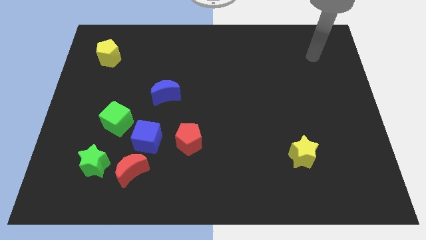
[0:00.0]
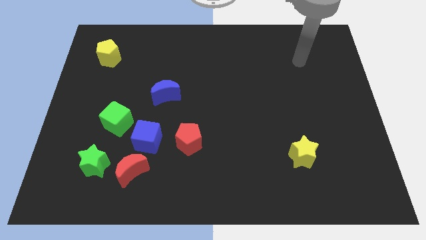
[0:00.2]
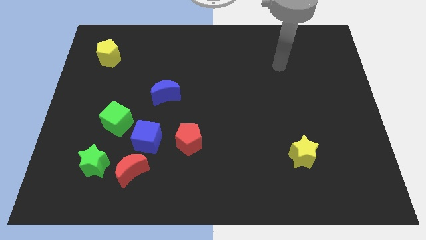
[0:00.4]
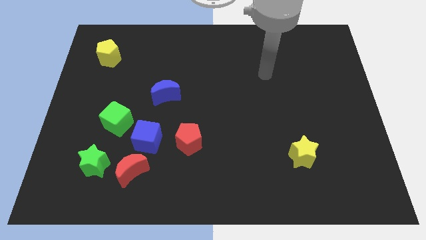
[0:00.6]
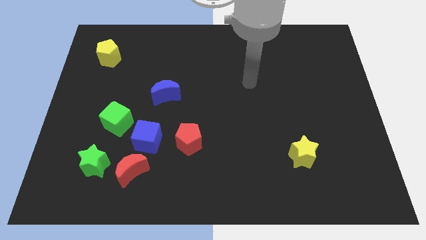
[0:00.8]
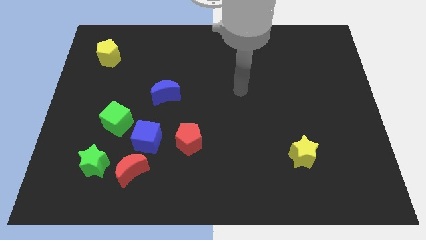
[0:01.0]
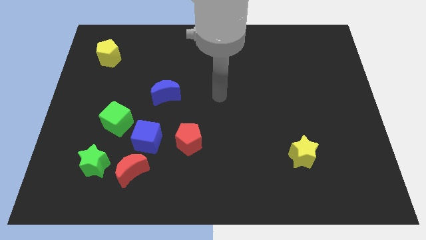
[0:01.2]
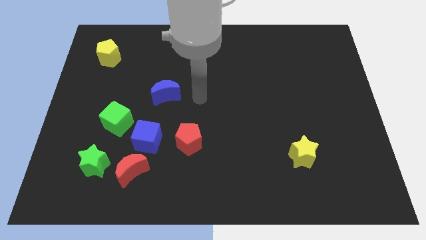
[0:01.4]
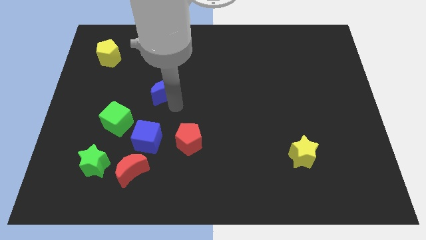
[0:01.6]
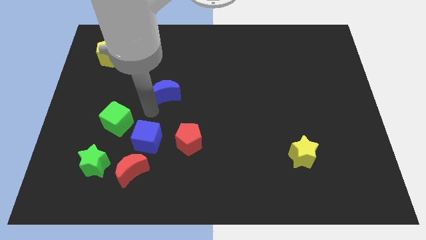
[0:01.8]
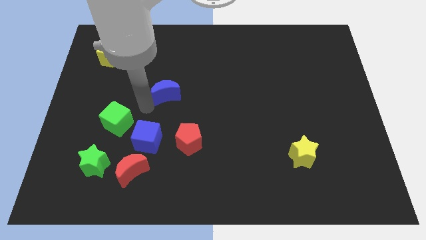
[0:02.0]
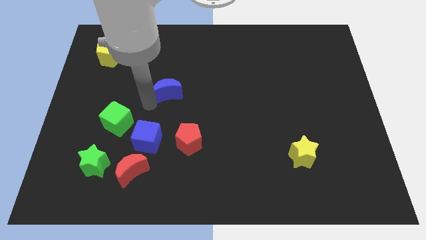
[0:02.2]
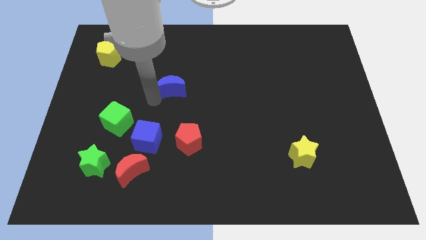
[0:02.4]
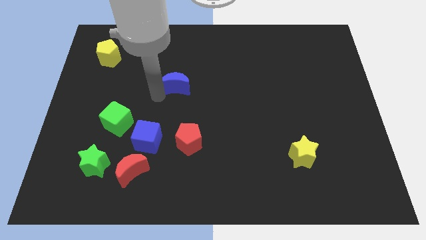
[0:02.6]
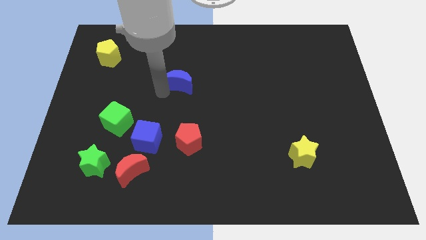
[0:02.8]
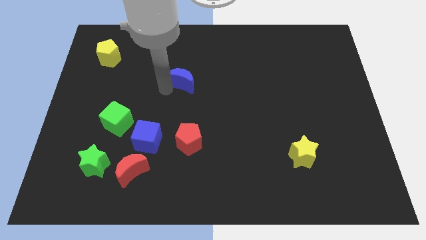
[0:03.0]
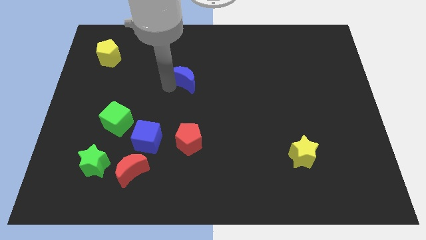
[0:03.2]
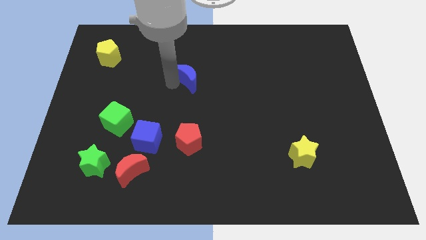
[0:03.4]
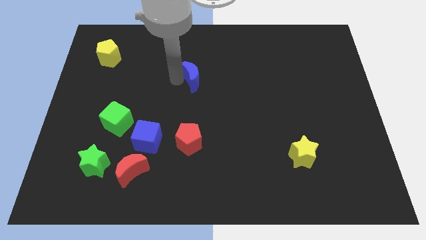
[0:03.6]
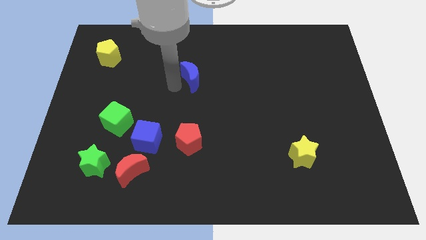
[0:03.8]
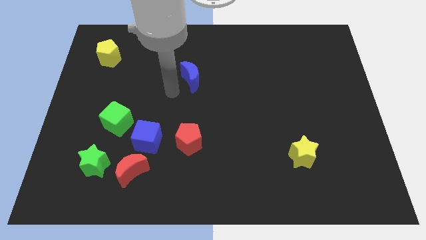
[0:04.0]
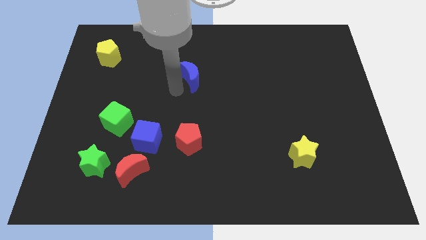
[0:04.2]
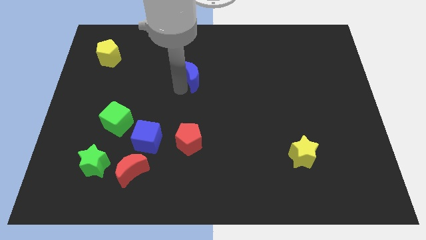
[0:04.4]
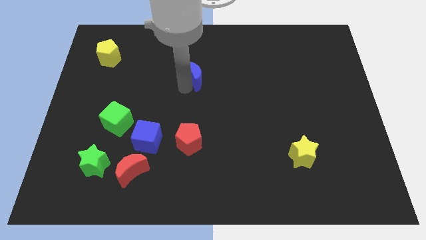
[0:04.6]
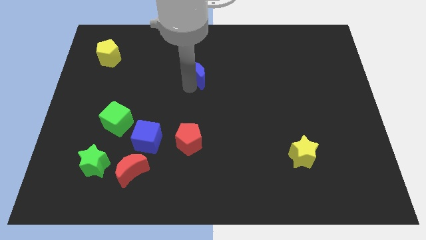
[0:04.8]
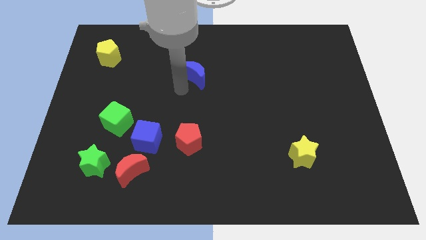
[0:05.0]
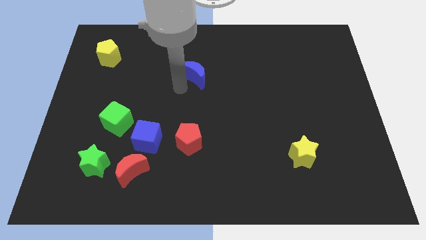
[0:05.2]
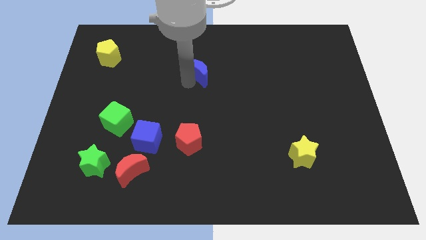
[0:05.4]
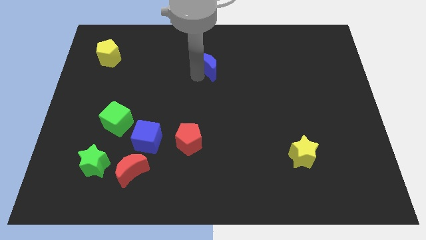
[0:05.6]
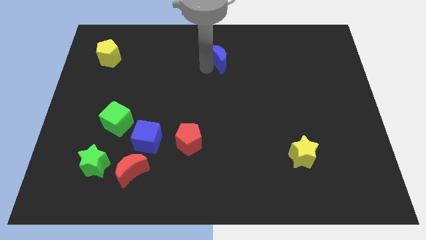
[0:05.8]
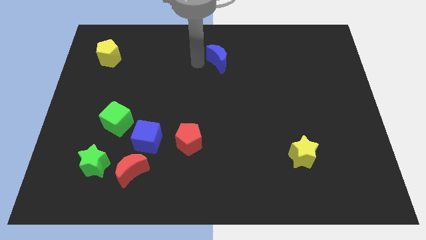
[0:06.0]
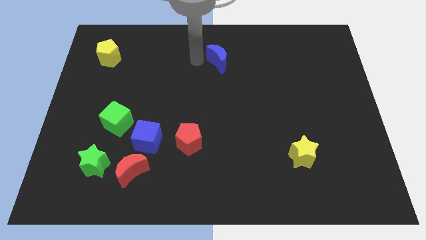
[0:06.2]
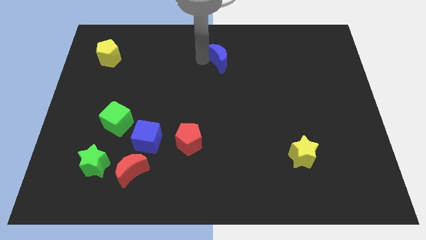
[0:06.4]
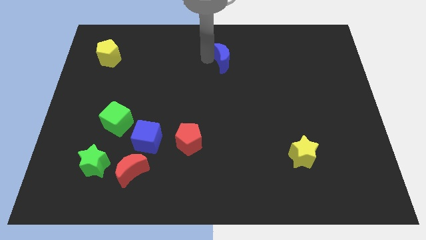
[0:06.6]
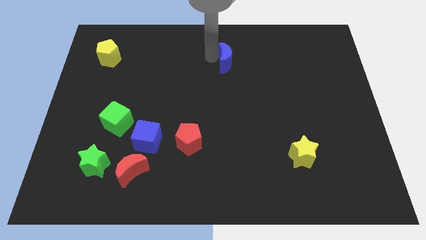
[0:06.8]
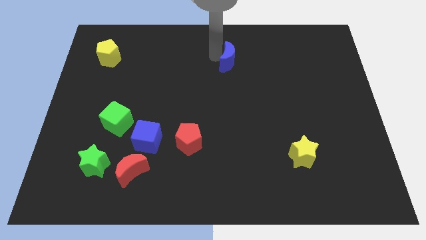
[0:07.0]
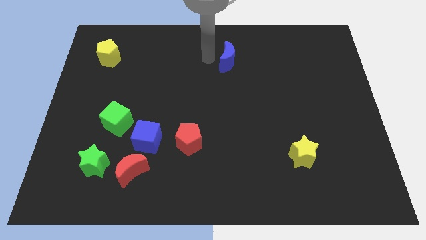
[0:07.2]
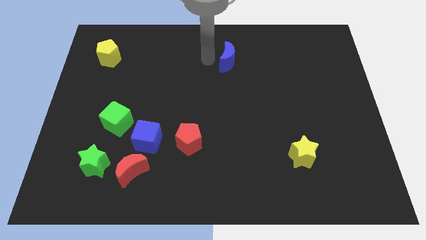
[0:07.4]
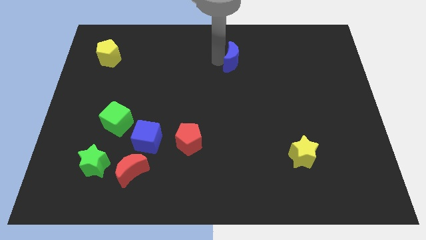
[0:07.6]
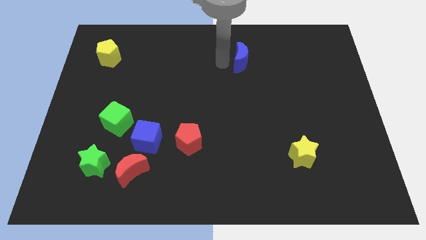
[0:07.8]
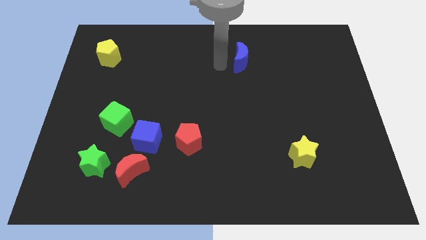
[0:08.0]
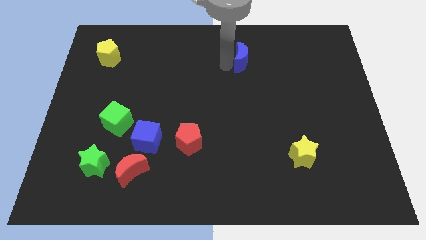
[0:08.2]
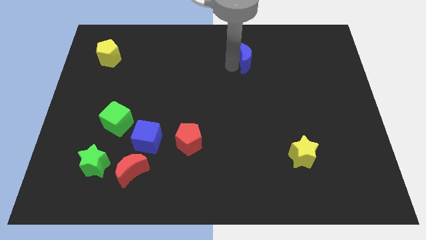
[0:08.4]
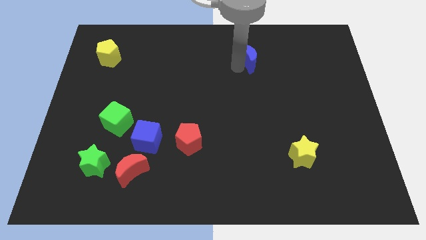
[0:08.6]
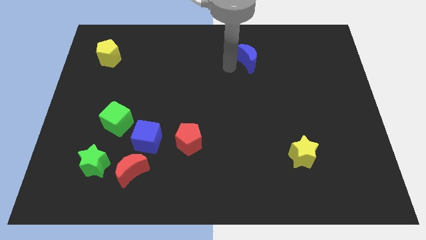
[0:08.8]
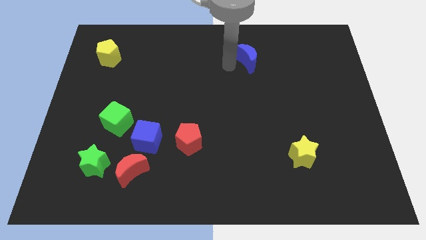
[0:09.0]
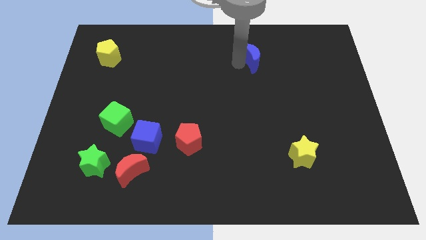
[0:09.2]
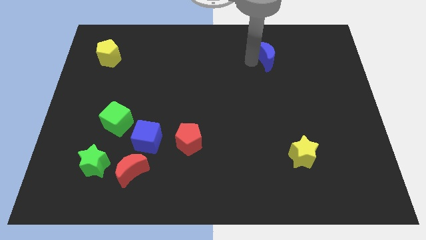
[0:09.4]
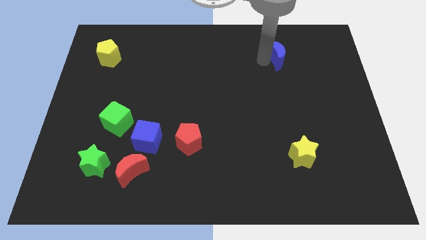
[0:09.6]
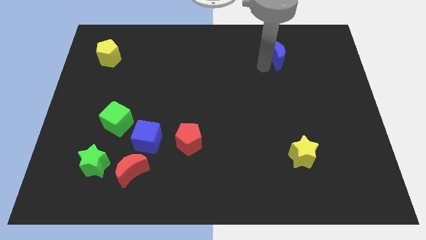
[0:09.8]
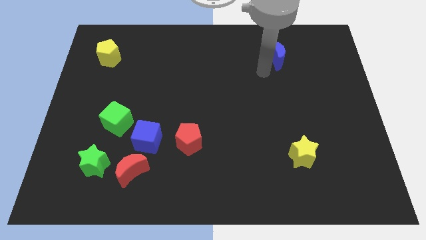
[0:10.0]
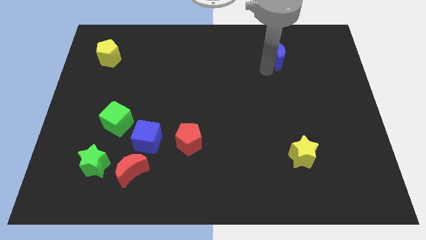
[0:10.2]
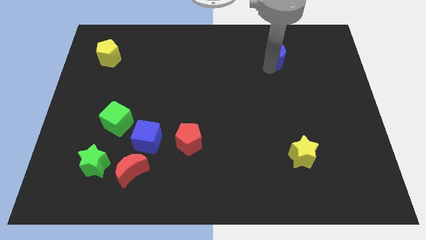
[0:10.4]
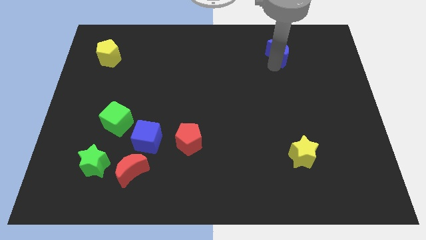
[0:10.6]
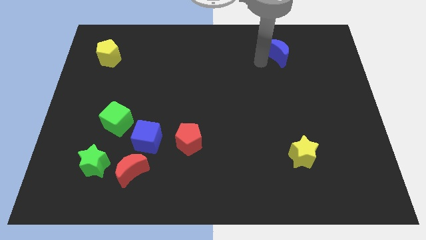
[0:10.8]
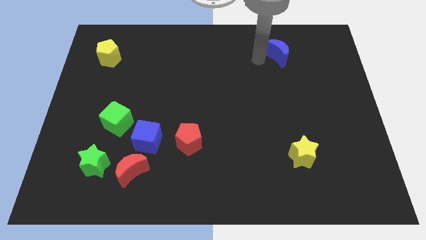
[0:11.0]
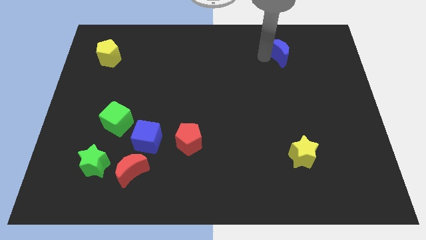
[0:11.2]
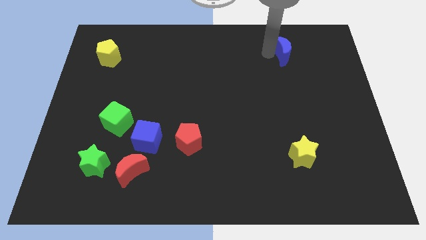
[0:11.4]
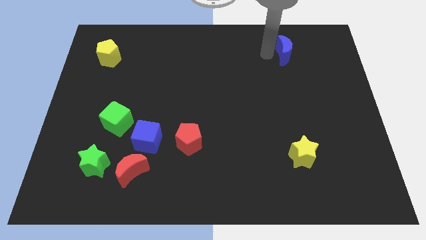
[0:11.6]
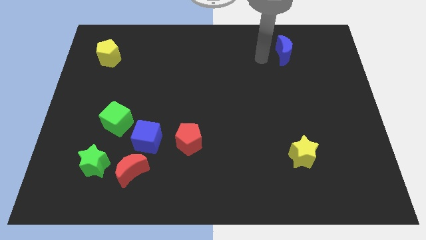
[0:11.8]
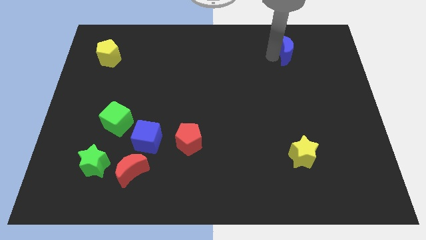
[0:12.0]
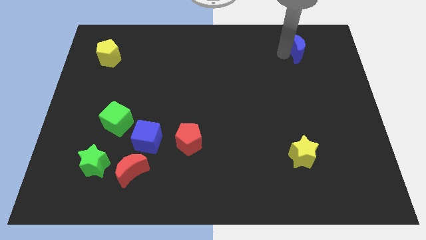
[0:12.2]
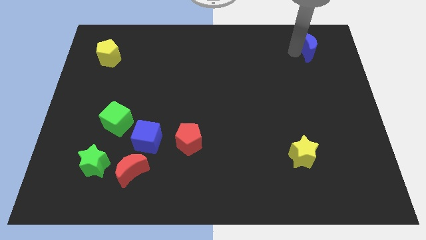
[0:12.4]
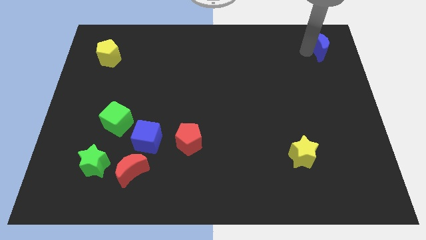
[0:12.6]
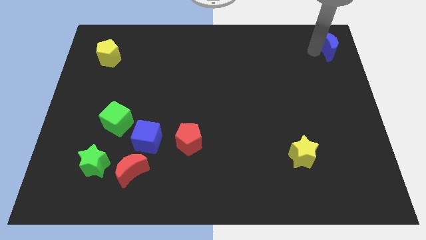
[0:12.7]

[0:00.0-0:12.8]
move the blue moon to the upper right corner

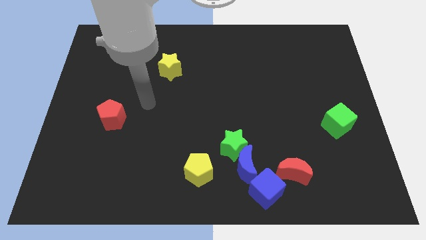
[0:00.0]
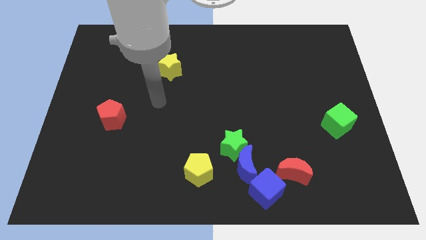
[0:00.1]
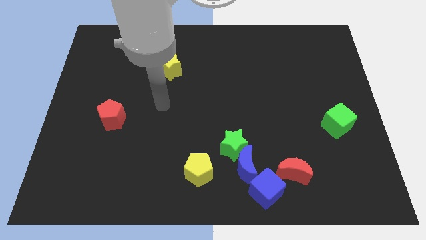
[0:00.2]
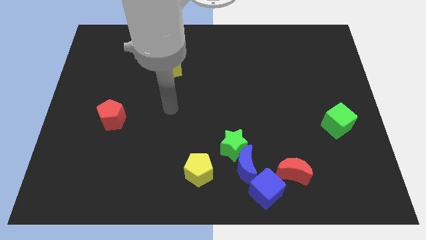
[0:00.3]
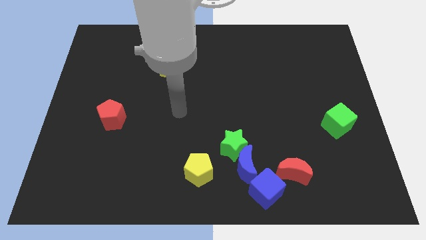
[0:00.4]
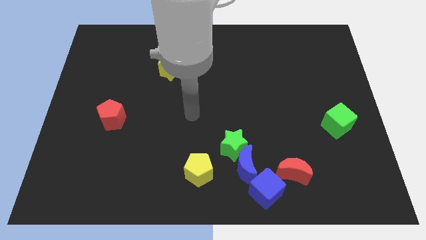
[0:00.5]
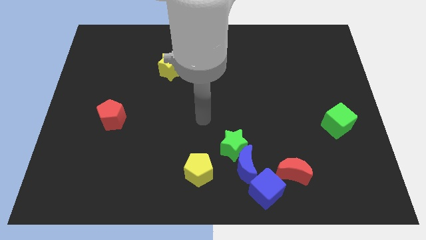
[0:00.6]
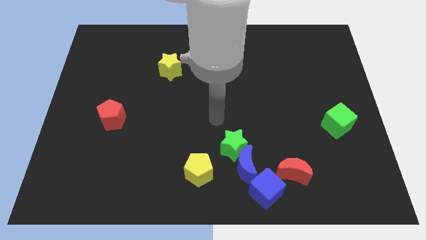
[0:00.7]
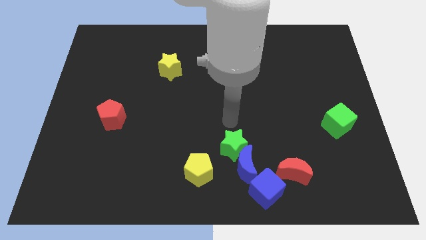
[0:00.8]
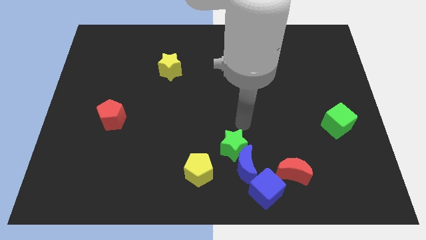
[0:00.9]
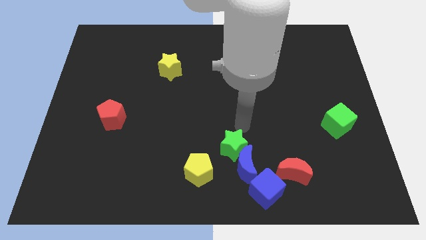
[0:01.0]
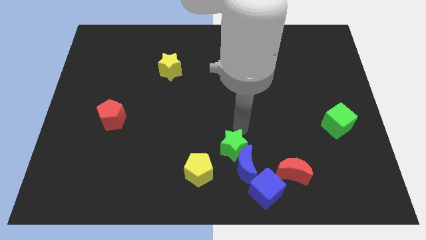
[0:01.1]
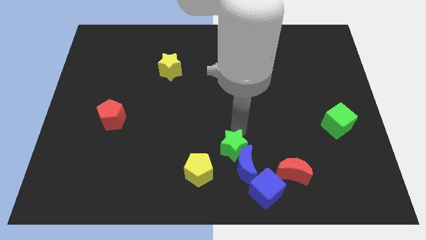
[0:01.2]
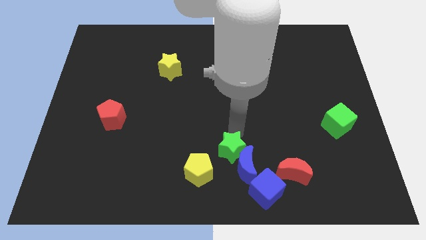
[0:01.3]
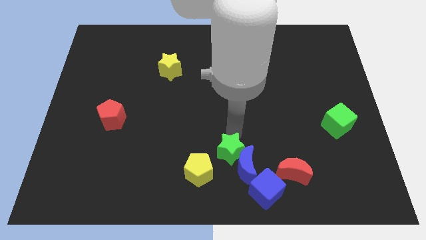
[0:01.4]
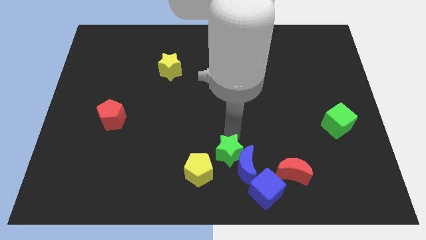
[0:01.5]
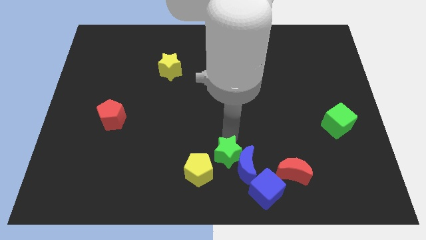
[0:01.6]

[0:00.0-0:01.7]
move the green star to the bottom side
